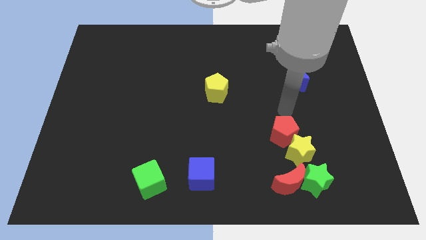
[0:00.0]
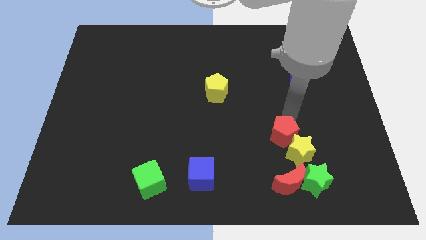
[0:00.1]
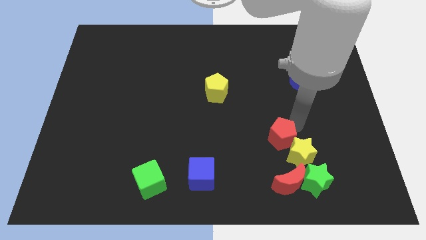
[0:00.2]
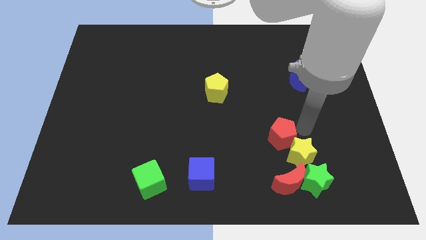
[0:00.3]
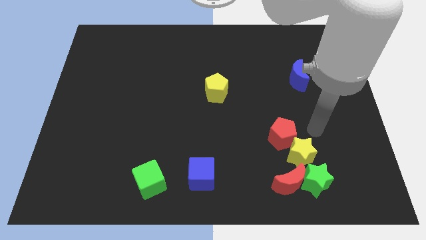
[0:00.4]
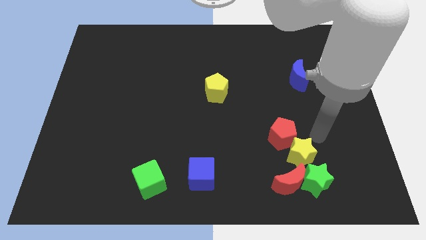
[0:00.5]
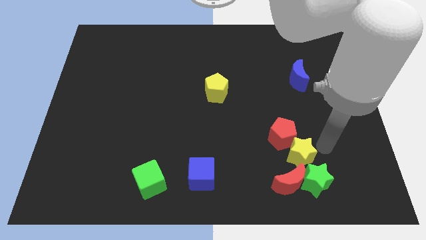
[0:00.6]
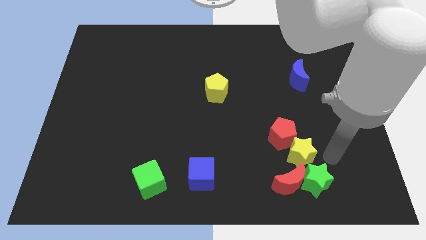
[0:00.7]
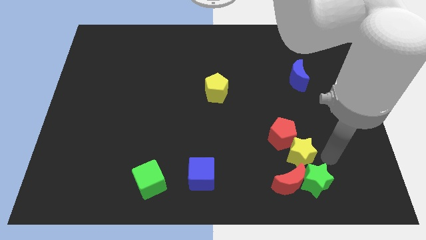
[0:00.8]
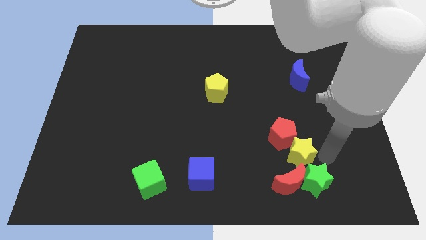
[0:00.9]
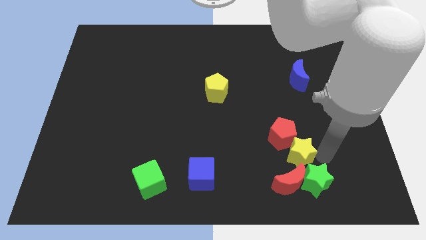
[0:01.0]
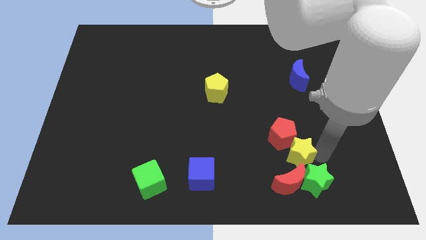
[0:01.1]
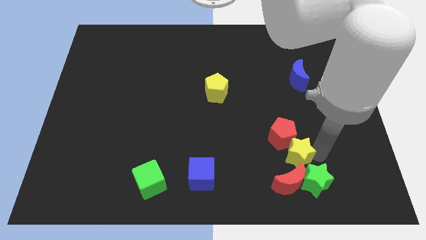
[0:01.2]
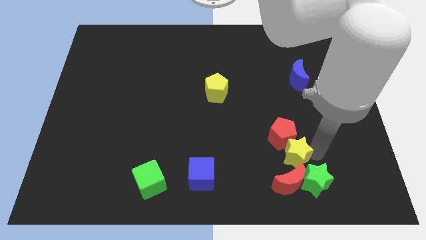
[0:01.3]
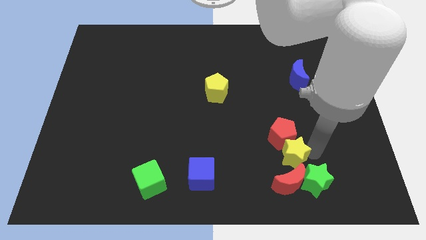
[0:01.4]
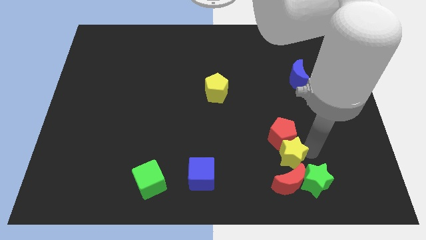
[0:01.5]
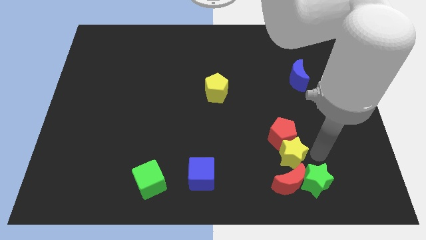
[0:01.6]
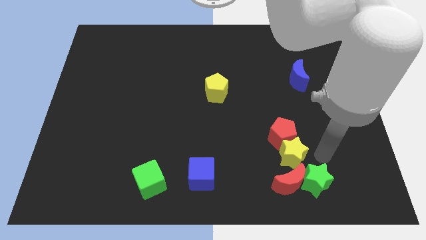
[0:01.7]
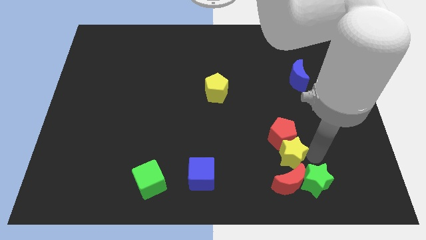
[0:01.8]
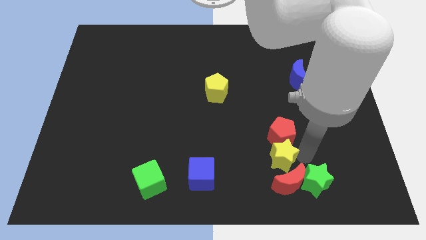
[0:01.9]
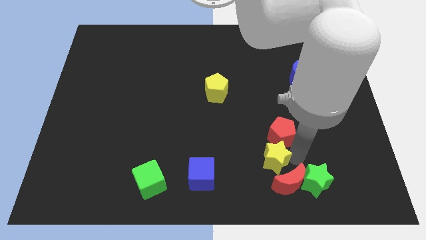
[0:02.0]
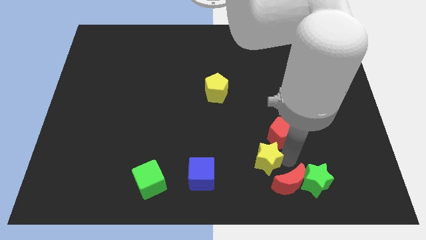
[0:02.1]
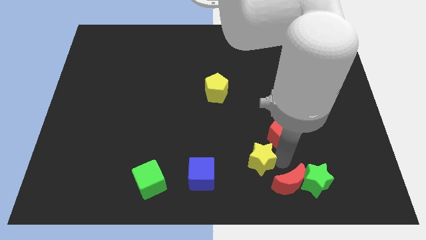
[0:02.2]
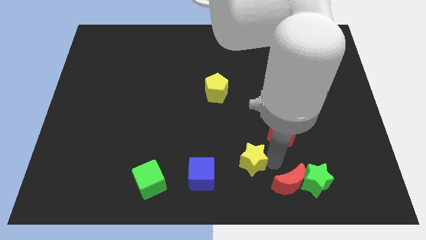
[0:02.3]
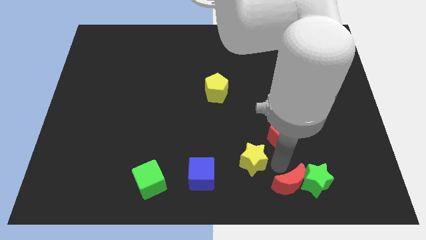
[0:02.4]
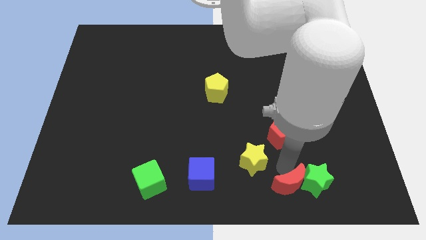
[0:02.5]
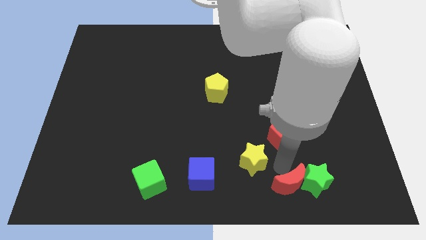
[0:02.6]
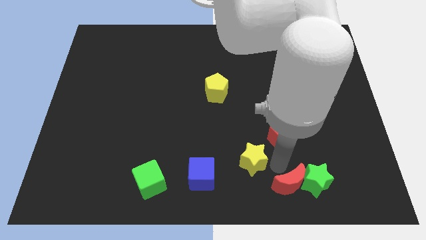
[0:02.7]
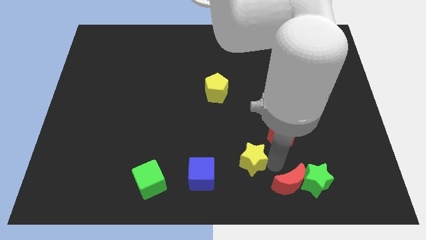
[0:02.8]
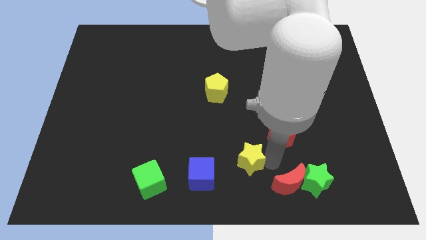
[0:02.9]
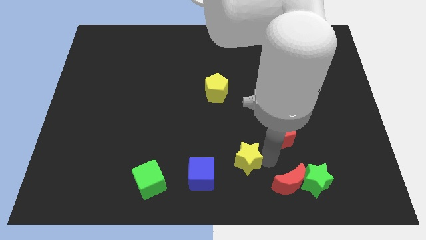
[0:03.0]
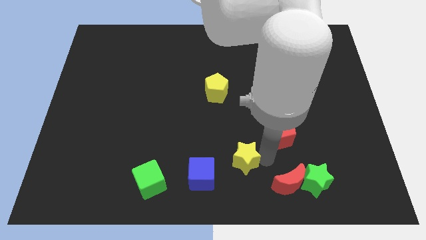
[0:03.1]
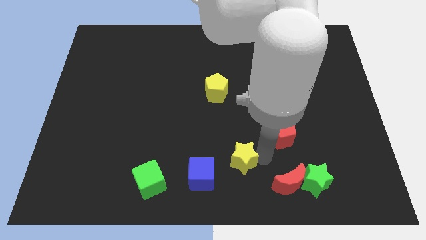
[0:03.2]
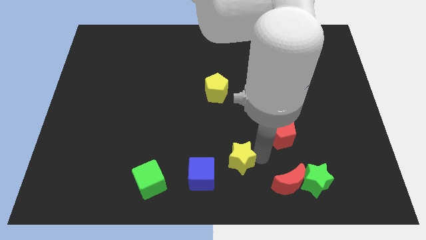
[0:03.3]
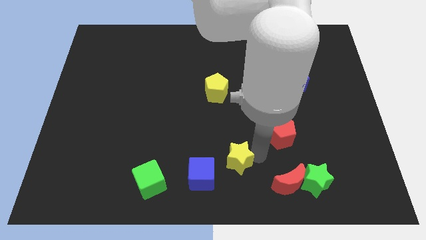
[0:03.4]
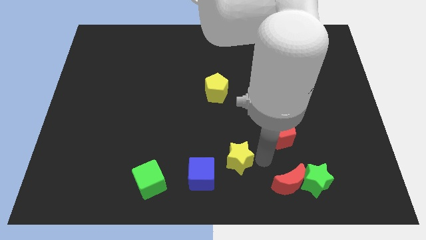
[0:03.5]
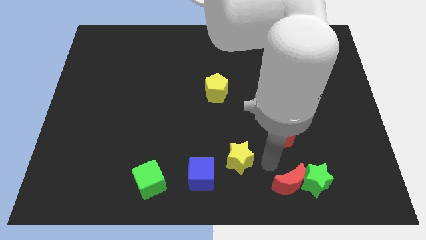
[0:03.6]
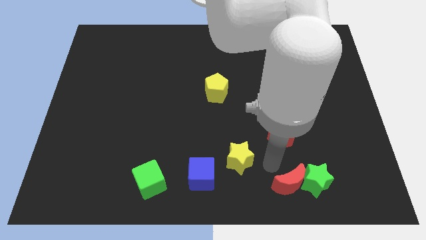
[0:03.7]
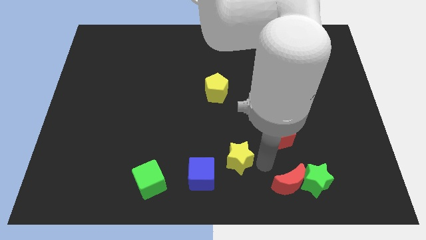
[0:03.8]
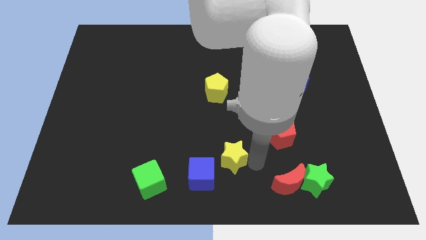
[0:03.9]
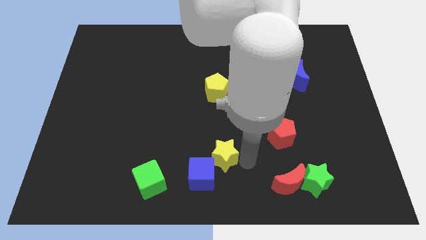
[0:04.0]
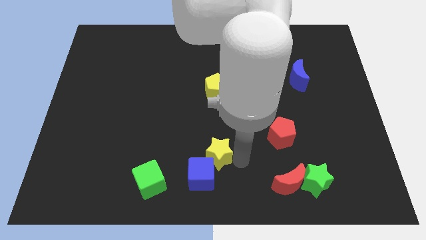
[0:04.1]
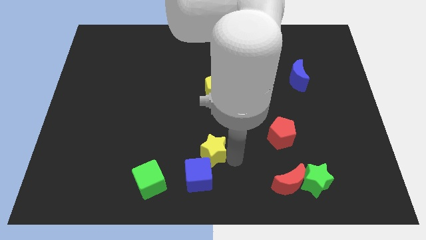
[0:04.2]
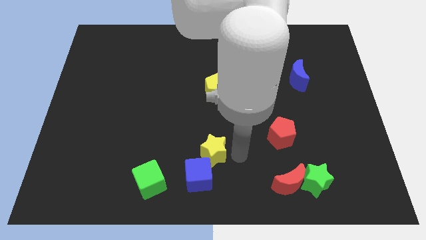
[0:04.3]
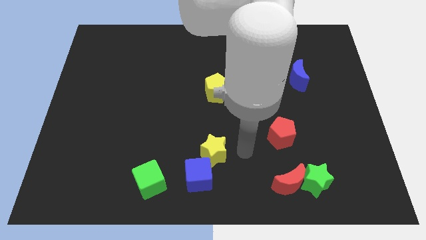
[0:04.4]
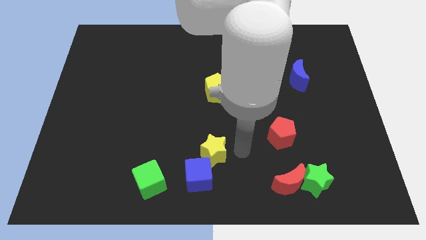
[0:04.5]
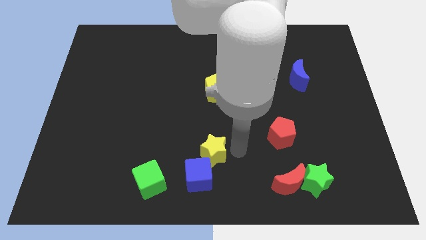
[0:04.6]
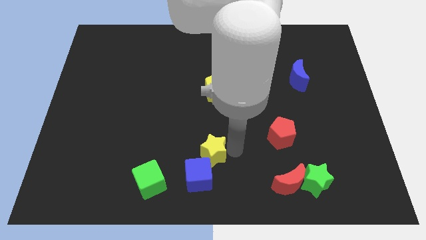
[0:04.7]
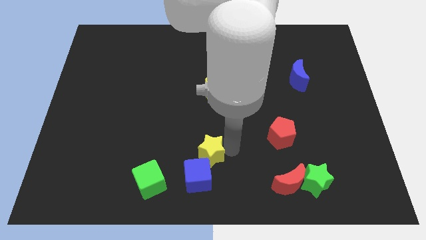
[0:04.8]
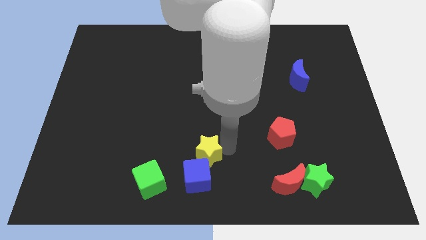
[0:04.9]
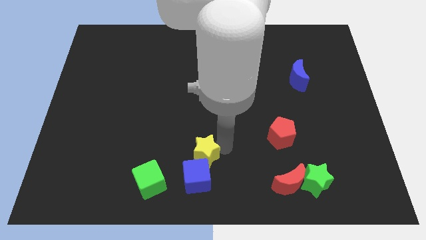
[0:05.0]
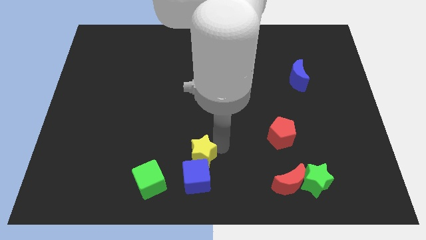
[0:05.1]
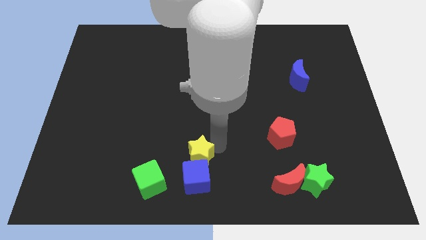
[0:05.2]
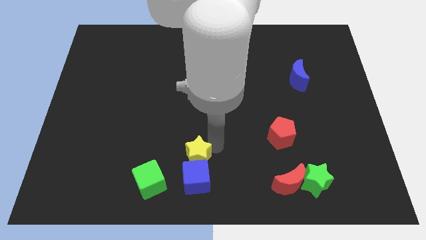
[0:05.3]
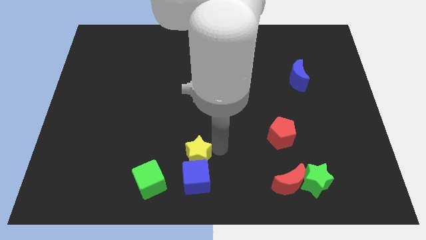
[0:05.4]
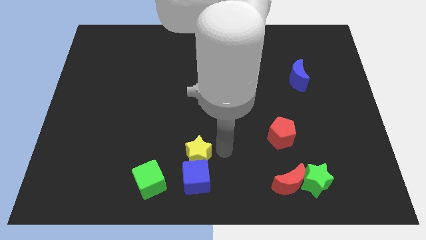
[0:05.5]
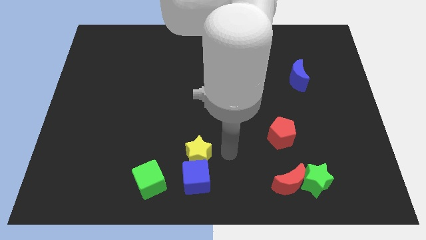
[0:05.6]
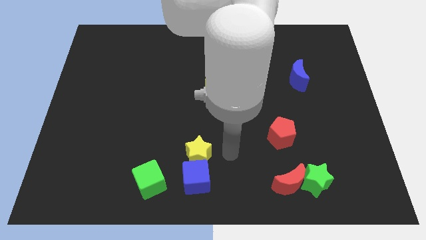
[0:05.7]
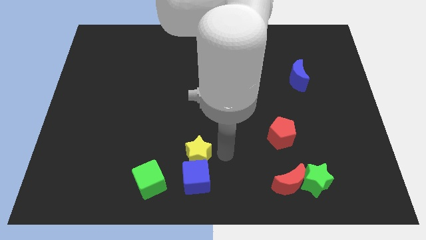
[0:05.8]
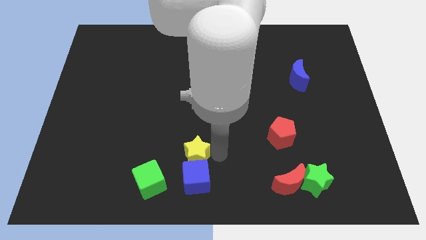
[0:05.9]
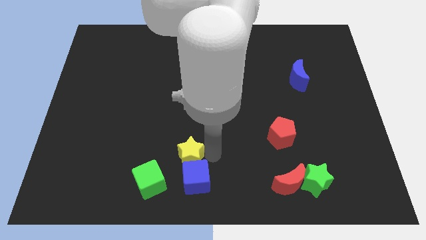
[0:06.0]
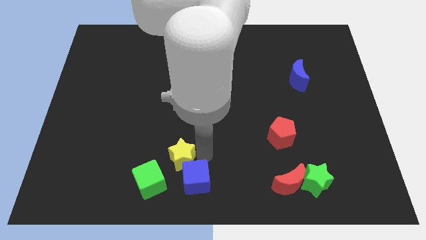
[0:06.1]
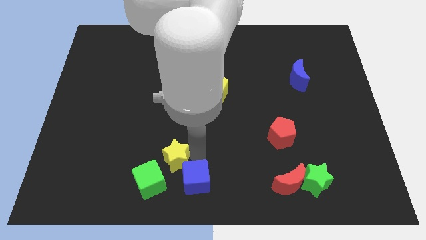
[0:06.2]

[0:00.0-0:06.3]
put the yellow star to the left side of the blue cube

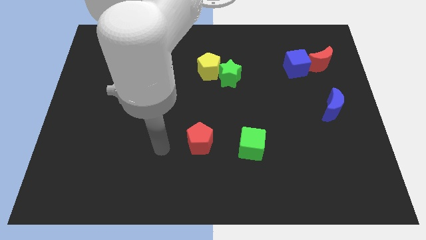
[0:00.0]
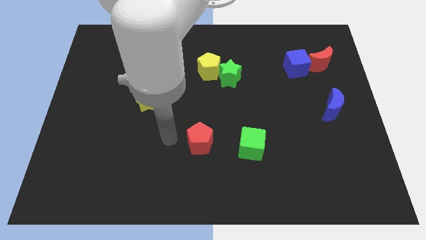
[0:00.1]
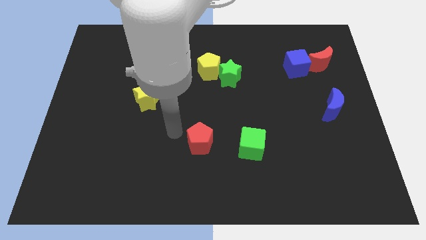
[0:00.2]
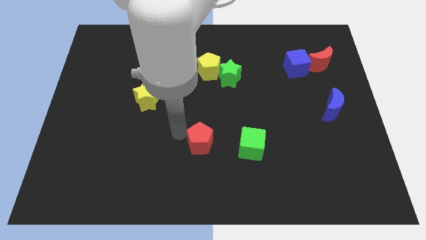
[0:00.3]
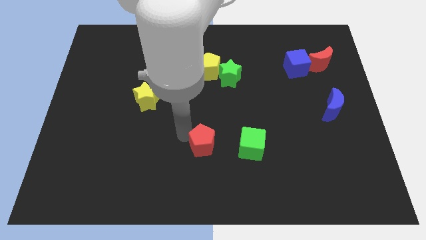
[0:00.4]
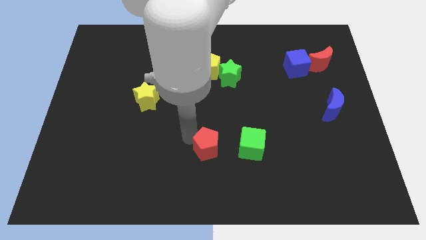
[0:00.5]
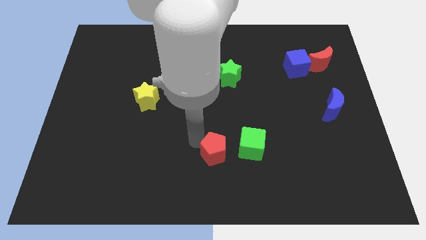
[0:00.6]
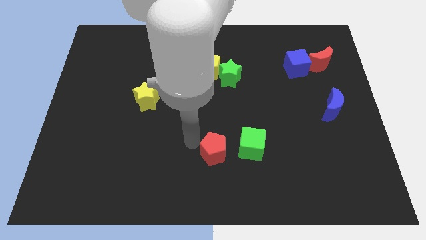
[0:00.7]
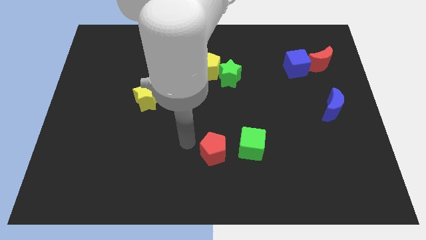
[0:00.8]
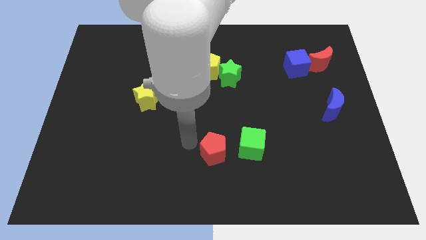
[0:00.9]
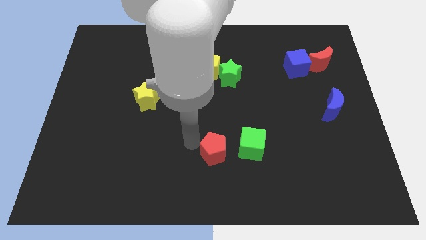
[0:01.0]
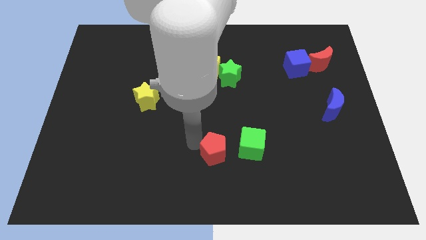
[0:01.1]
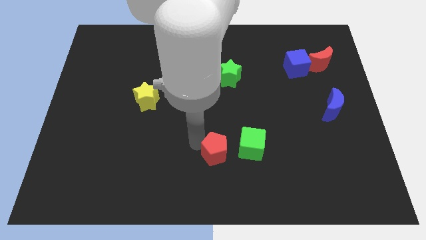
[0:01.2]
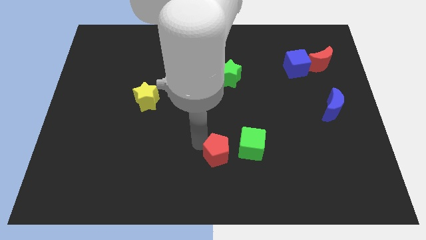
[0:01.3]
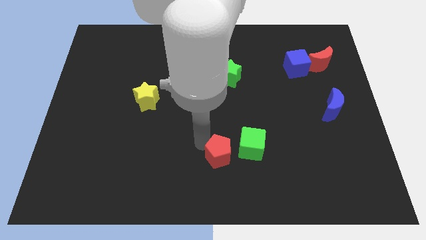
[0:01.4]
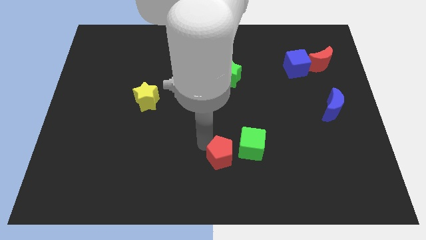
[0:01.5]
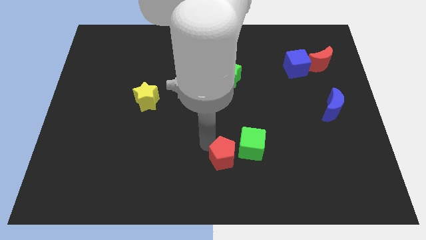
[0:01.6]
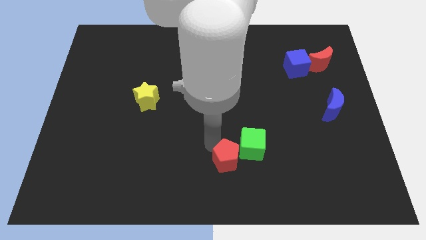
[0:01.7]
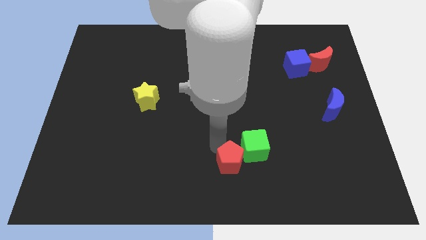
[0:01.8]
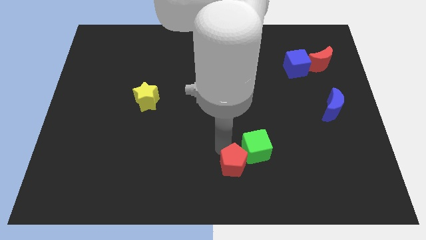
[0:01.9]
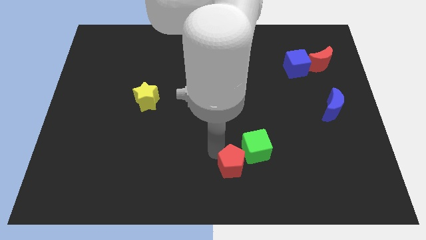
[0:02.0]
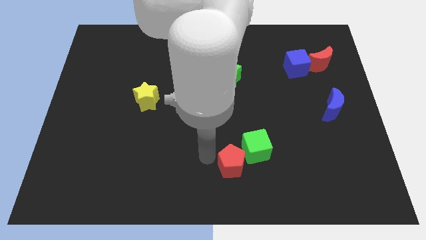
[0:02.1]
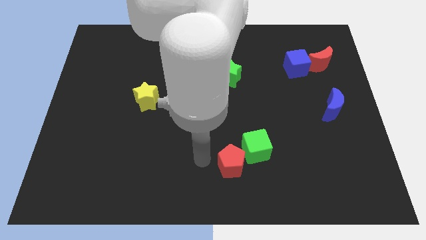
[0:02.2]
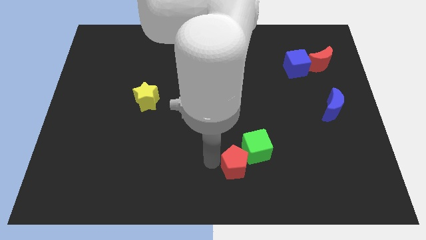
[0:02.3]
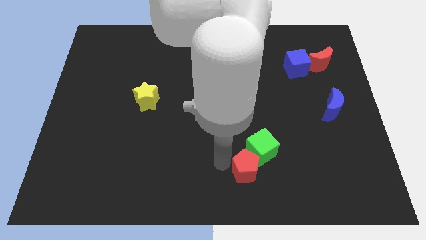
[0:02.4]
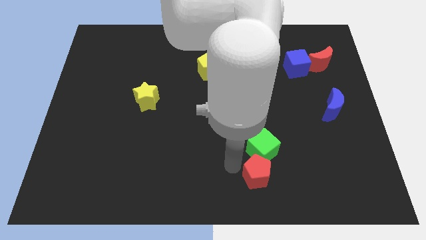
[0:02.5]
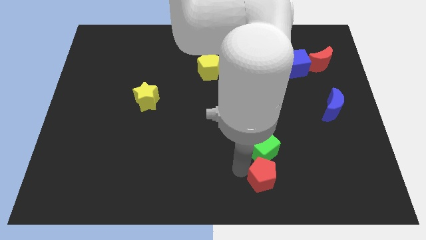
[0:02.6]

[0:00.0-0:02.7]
push the red pentagon to the bottom right side of the green cube
